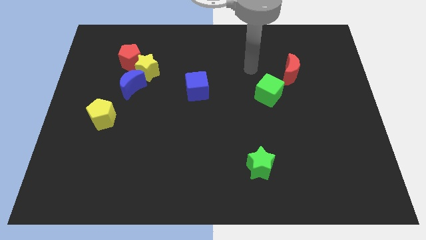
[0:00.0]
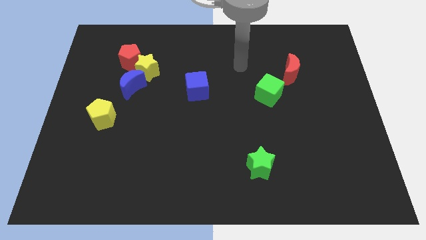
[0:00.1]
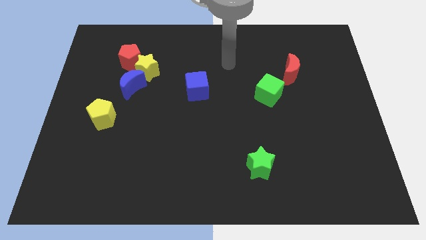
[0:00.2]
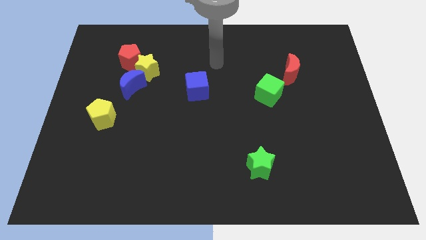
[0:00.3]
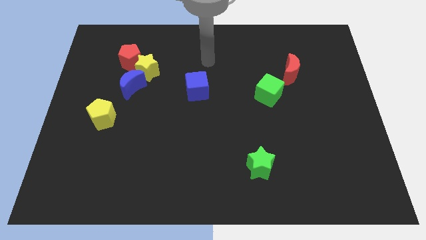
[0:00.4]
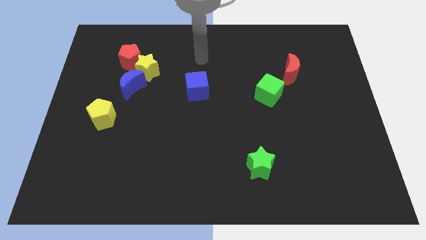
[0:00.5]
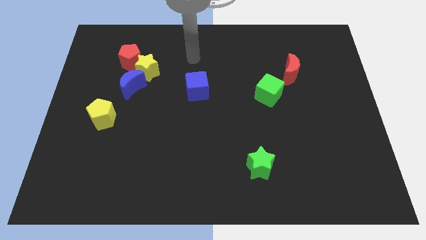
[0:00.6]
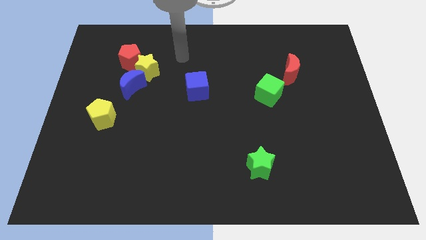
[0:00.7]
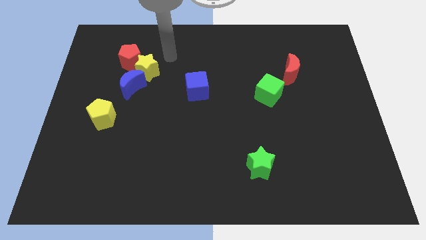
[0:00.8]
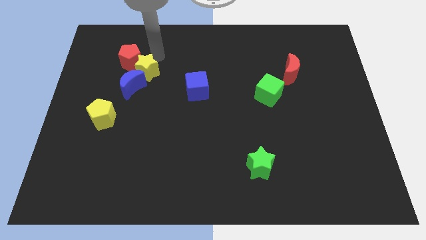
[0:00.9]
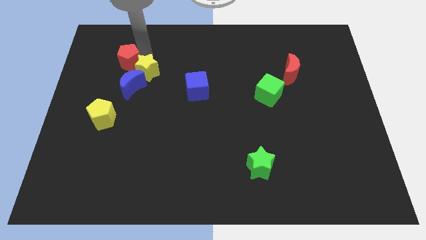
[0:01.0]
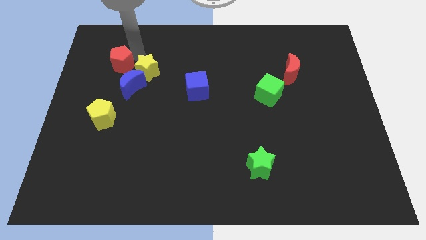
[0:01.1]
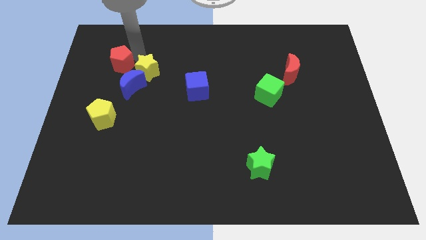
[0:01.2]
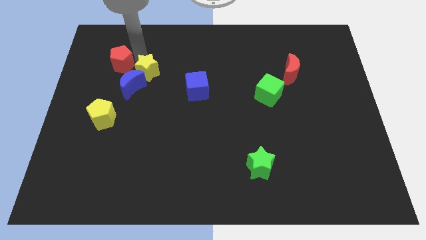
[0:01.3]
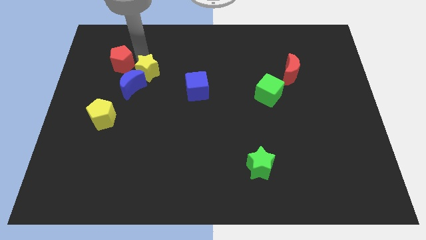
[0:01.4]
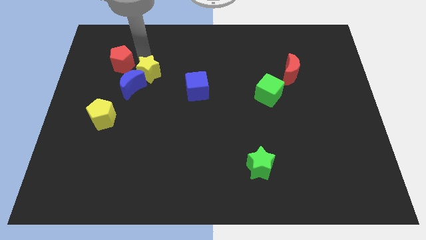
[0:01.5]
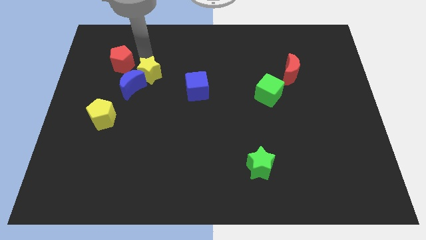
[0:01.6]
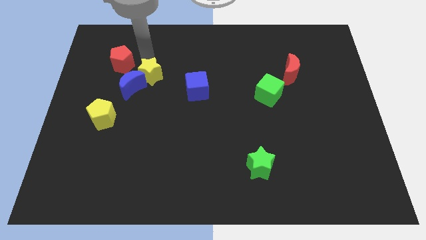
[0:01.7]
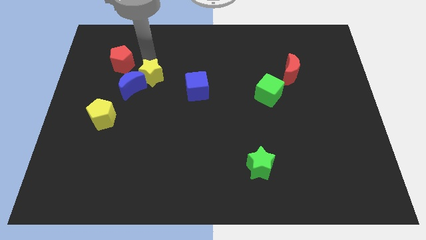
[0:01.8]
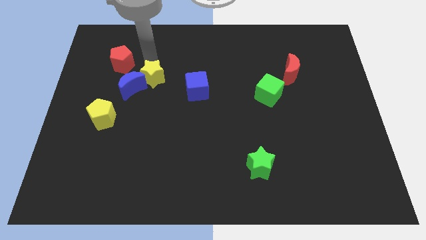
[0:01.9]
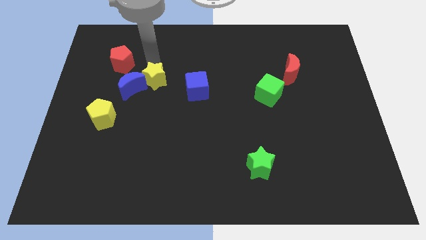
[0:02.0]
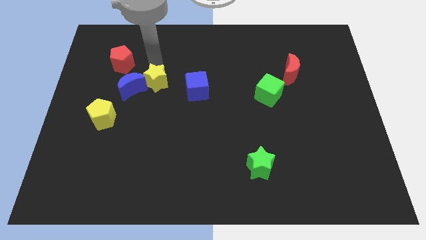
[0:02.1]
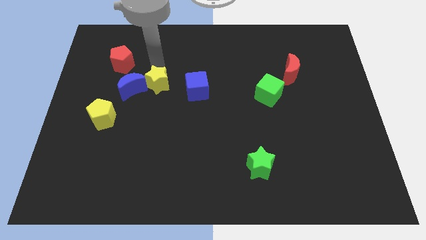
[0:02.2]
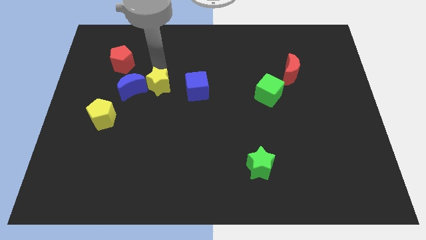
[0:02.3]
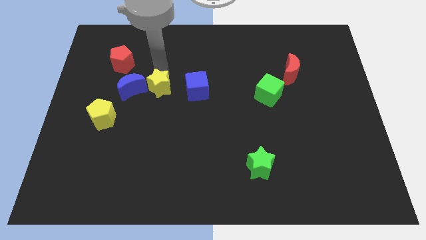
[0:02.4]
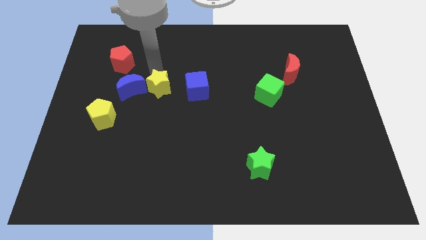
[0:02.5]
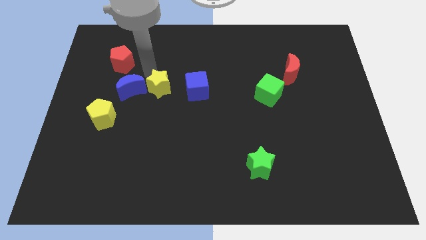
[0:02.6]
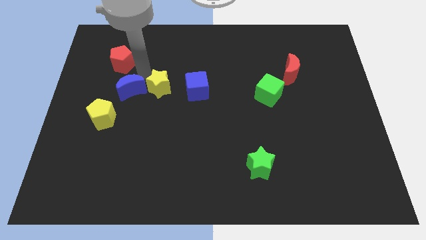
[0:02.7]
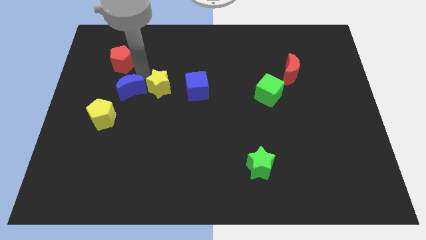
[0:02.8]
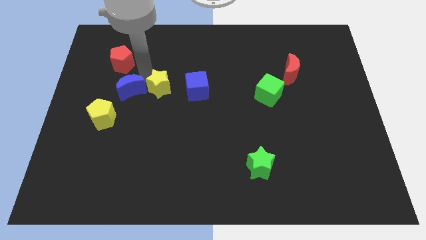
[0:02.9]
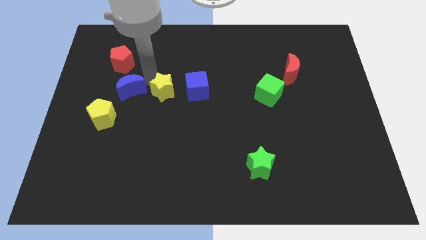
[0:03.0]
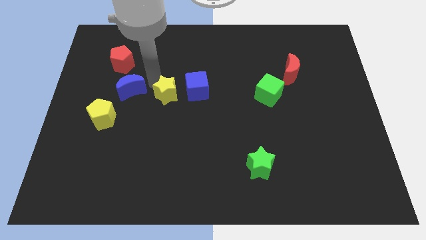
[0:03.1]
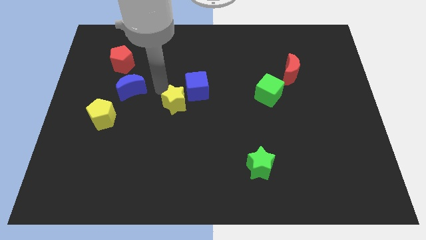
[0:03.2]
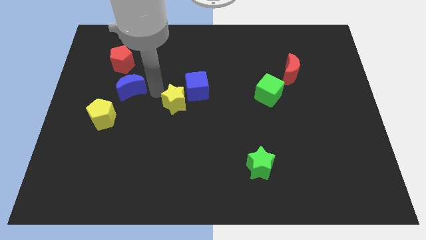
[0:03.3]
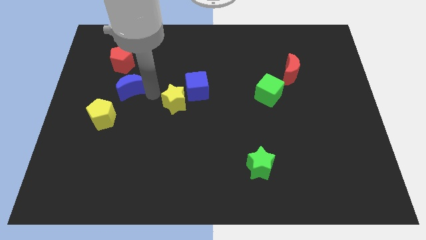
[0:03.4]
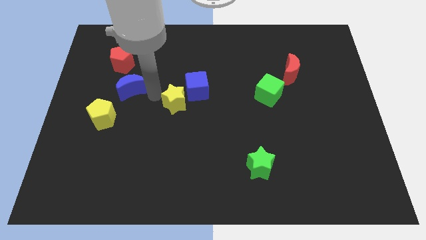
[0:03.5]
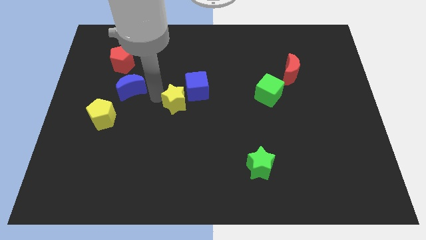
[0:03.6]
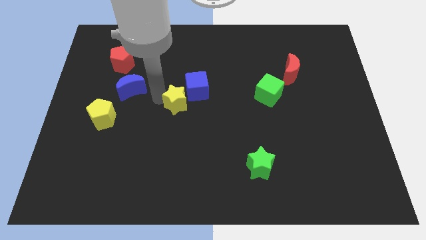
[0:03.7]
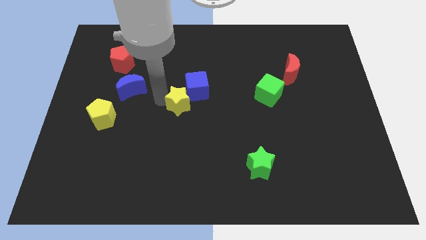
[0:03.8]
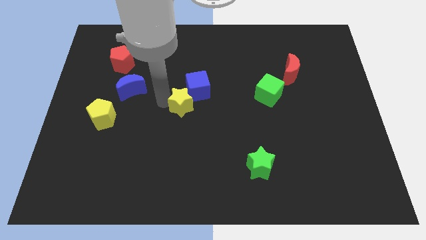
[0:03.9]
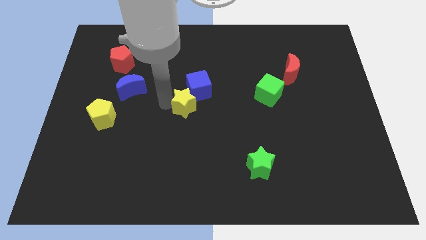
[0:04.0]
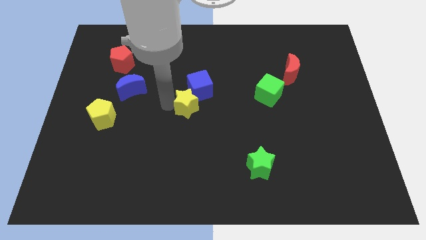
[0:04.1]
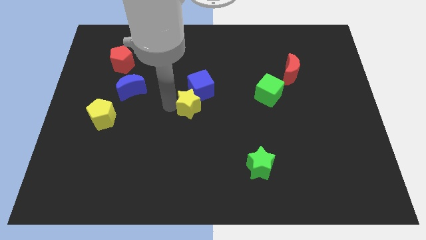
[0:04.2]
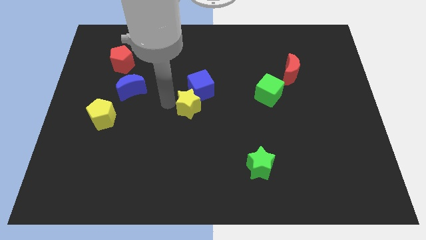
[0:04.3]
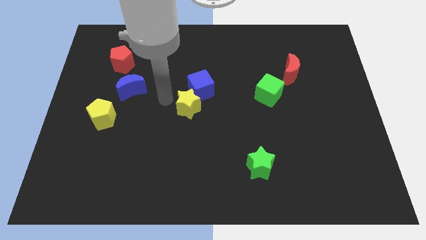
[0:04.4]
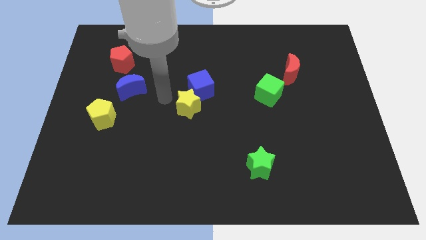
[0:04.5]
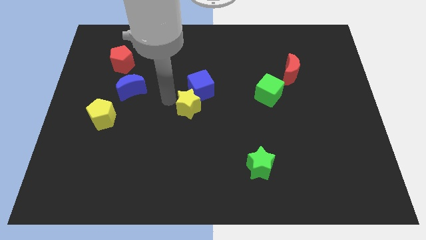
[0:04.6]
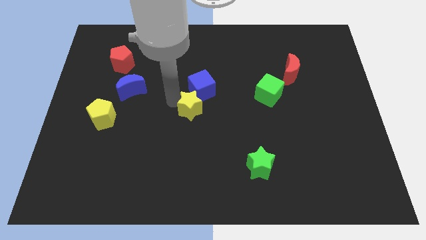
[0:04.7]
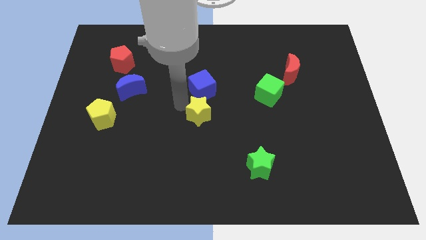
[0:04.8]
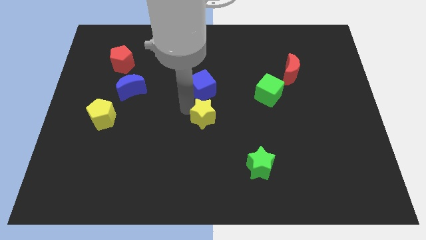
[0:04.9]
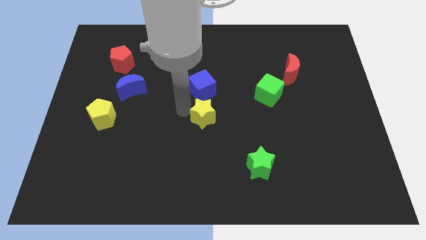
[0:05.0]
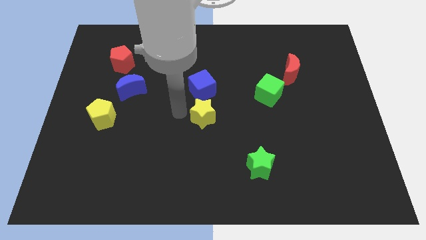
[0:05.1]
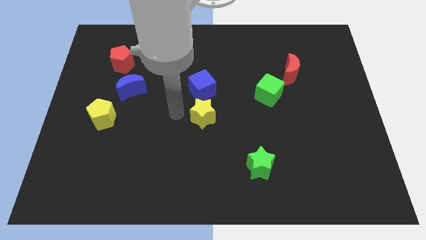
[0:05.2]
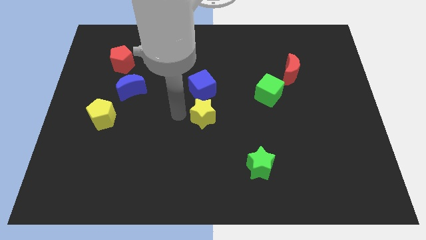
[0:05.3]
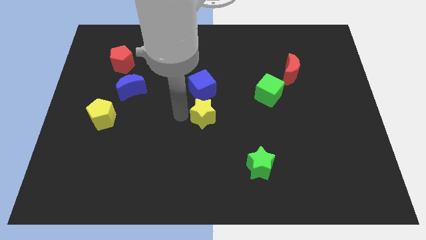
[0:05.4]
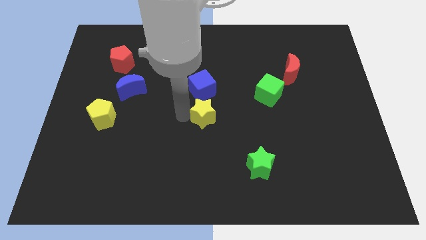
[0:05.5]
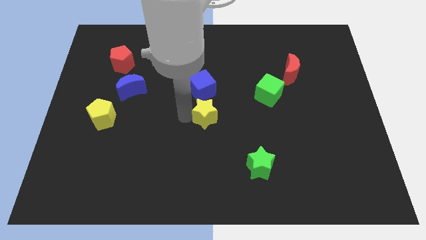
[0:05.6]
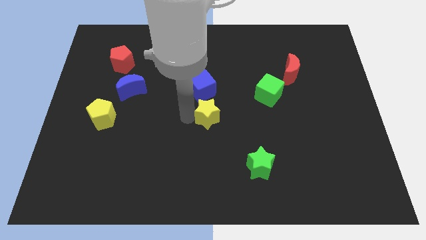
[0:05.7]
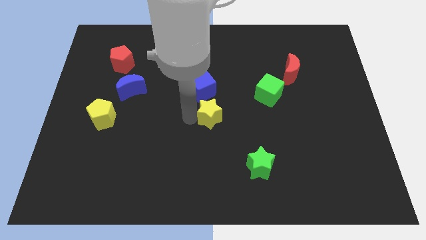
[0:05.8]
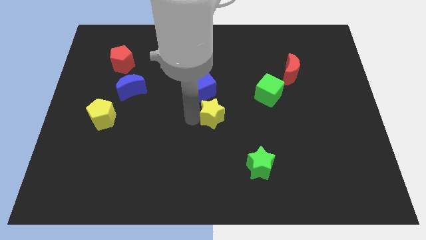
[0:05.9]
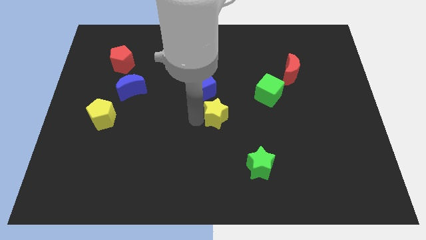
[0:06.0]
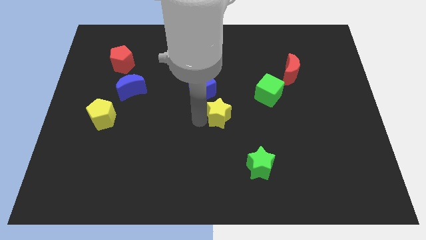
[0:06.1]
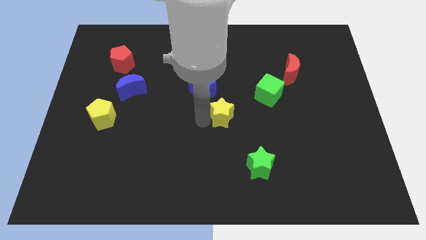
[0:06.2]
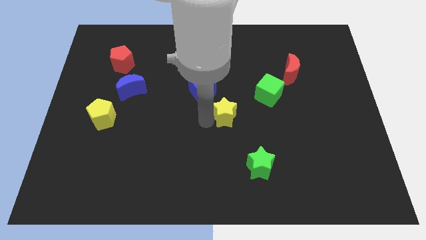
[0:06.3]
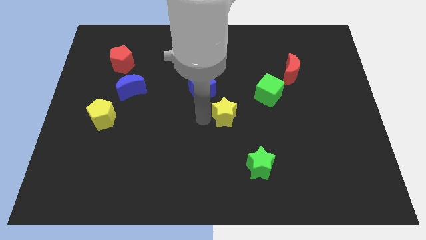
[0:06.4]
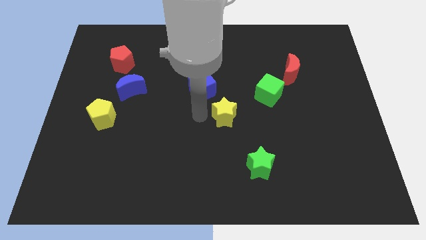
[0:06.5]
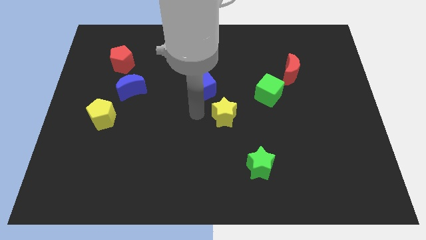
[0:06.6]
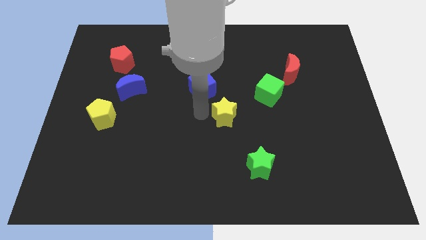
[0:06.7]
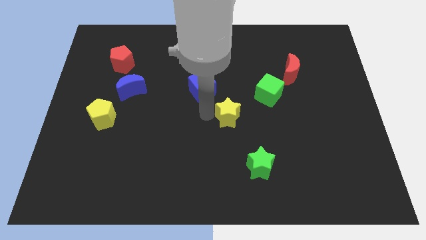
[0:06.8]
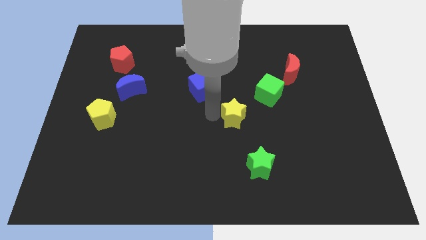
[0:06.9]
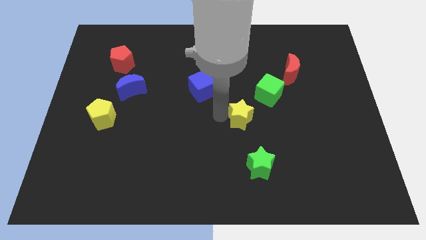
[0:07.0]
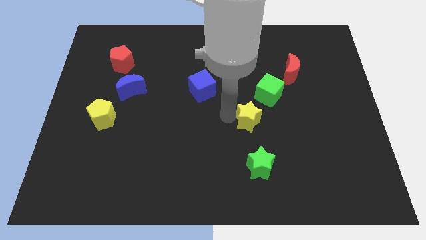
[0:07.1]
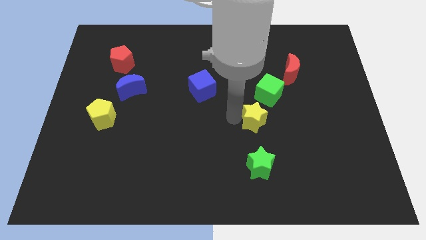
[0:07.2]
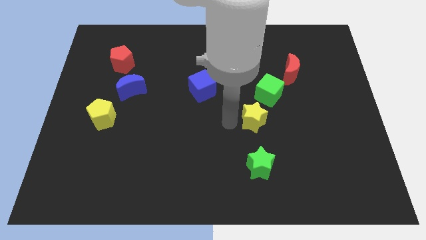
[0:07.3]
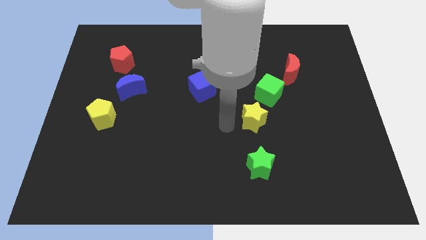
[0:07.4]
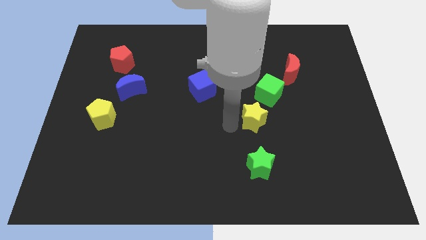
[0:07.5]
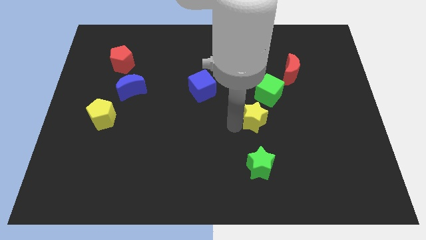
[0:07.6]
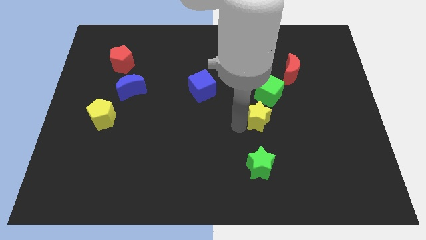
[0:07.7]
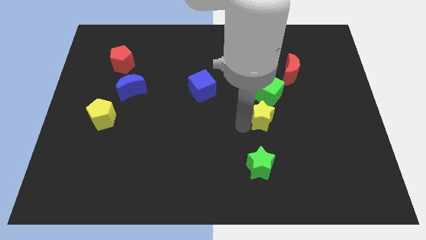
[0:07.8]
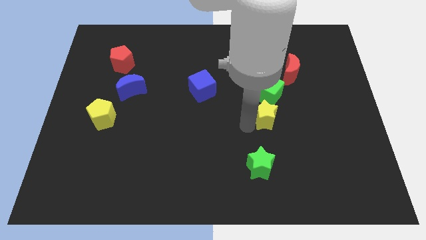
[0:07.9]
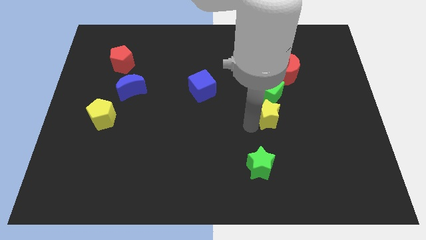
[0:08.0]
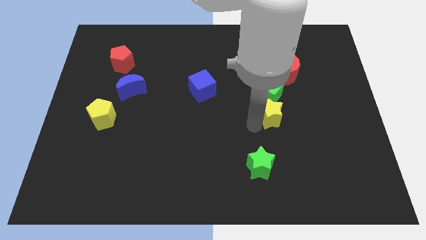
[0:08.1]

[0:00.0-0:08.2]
put the yellow star to the bottom right of the green cube
